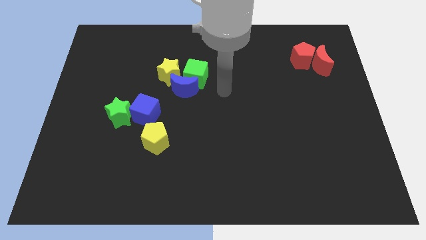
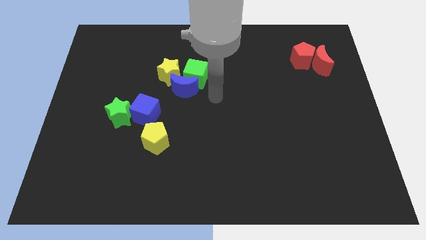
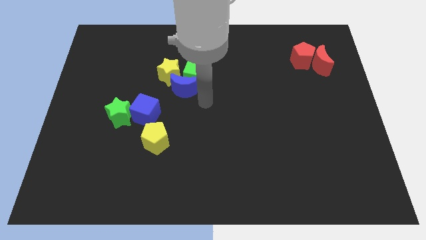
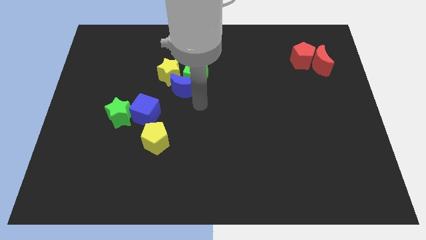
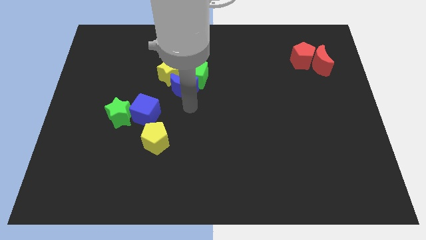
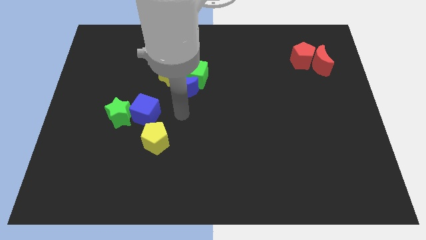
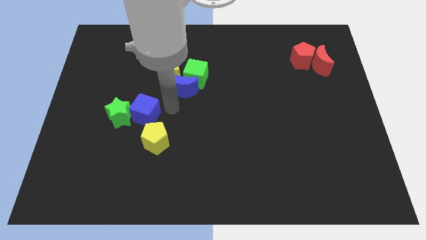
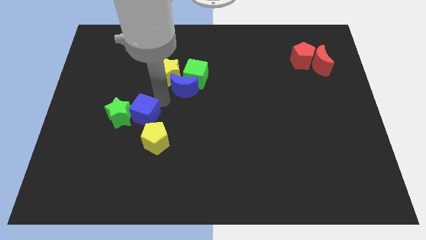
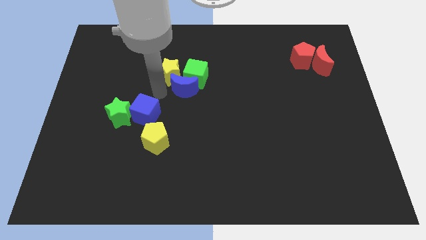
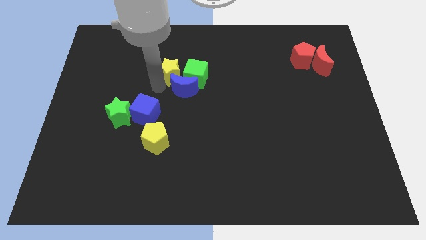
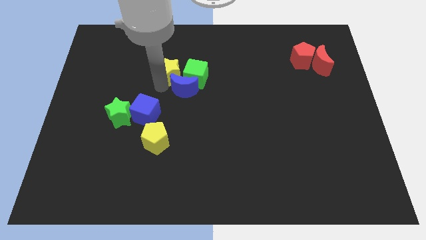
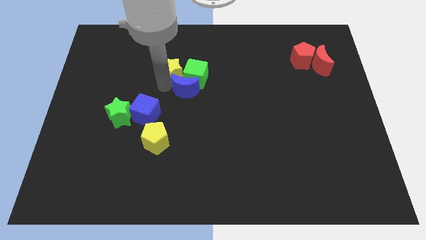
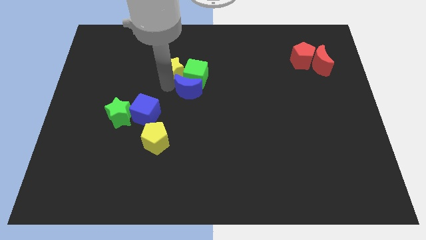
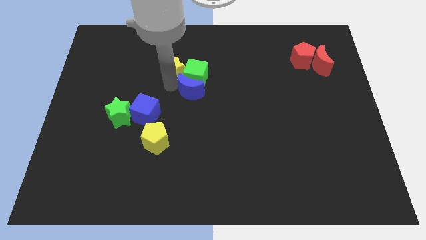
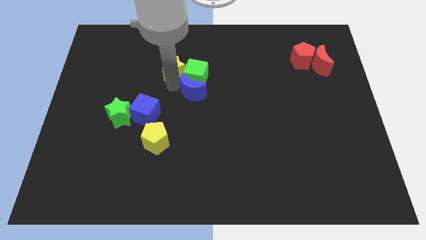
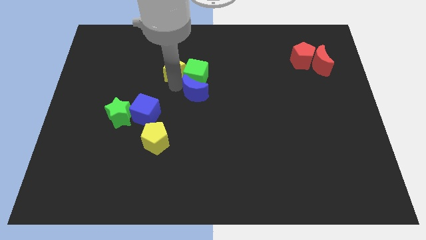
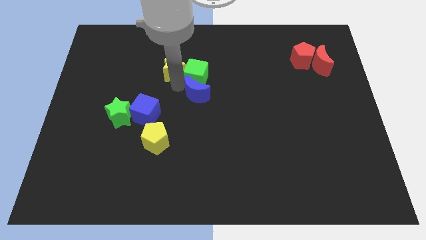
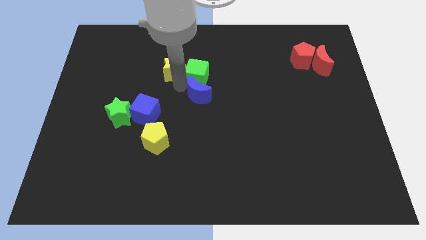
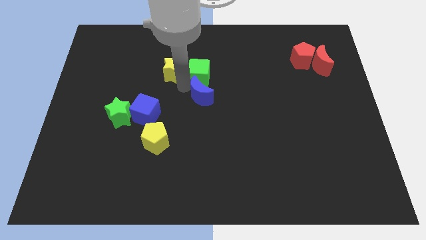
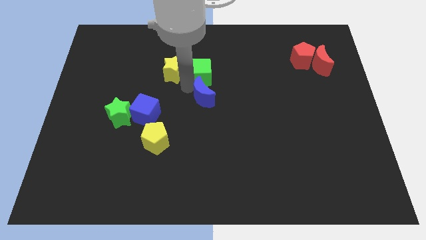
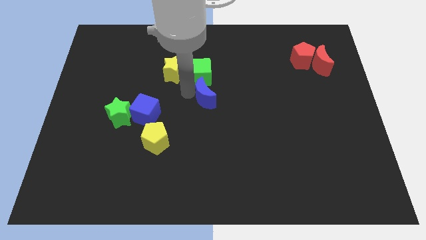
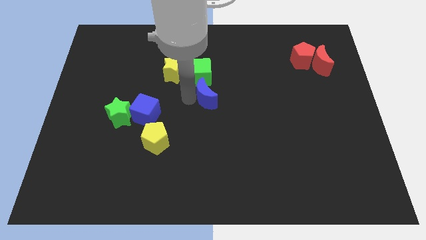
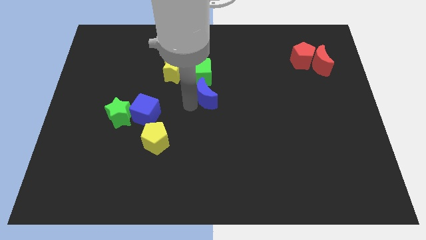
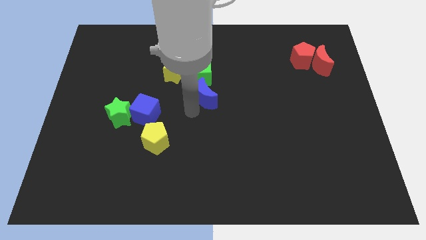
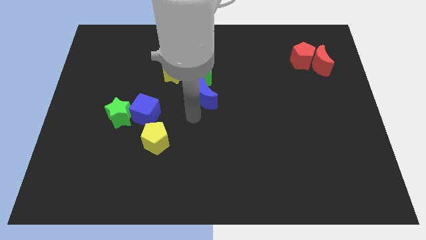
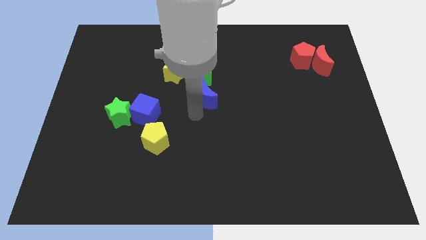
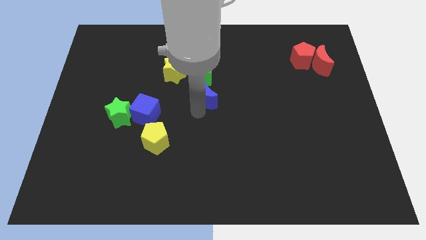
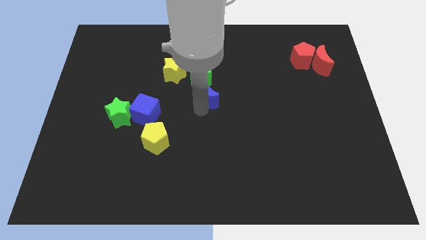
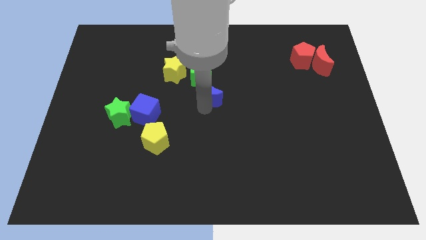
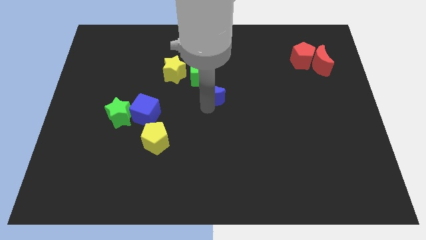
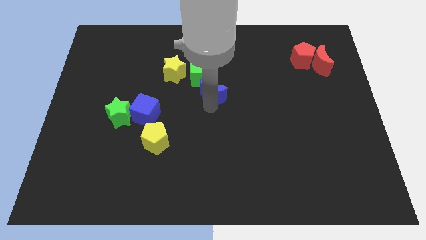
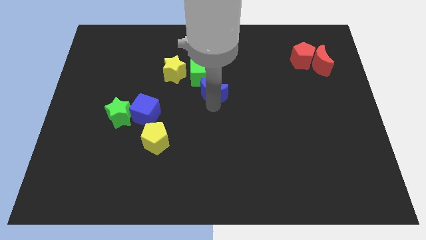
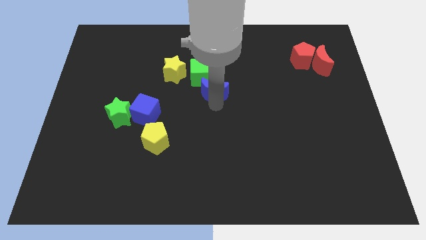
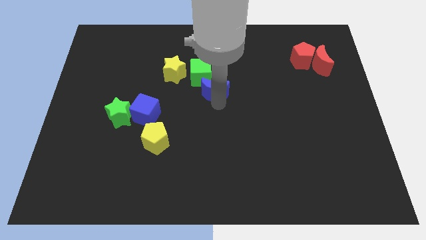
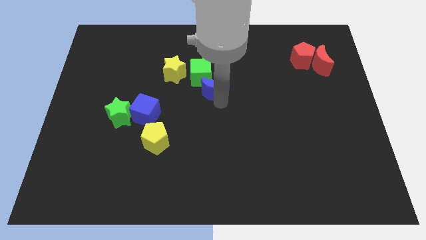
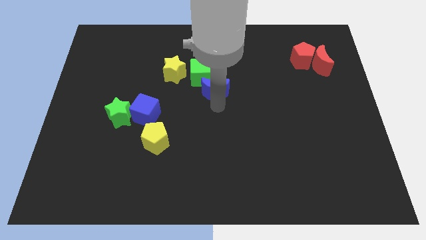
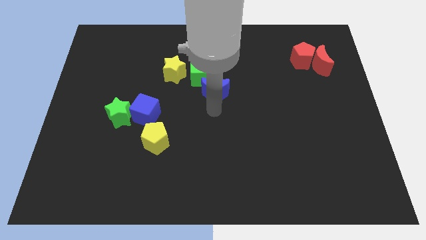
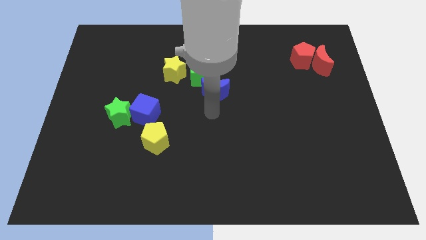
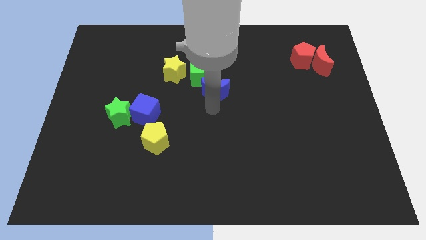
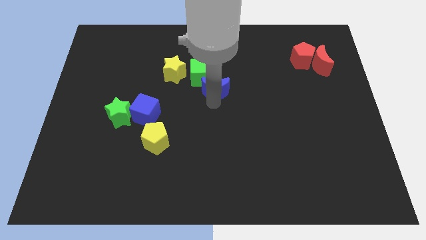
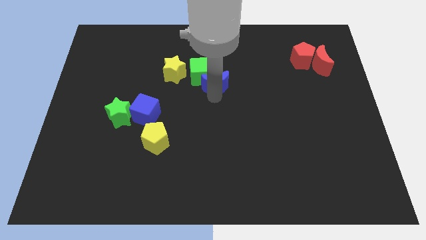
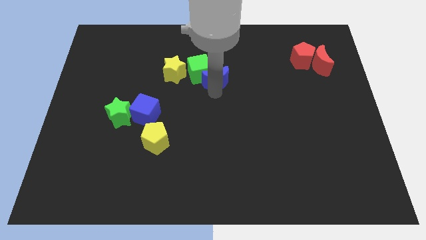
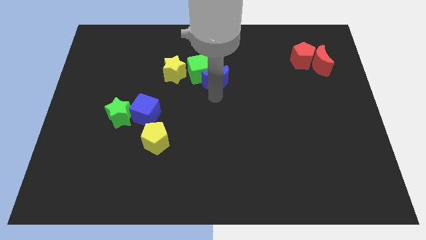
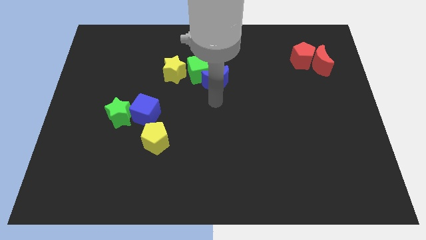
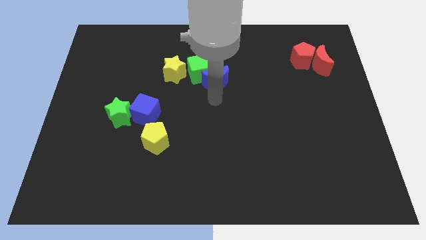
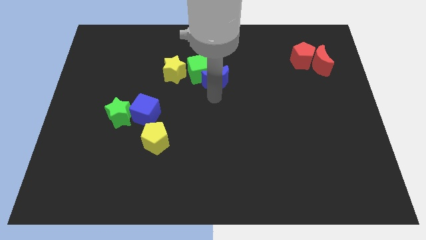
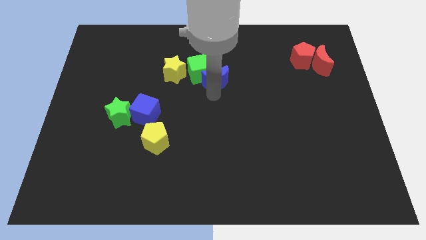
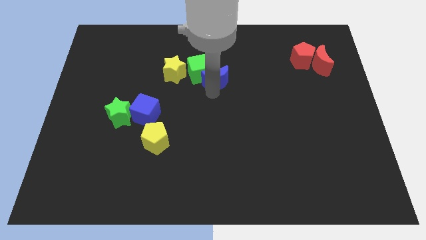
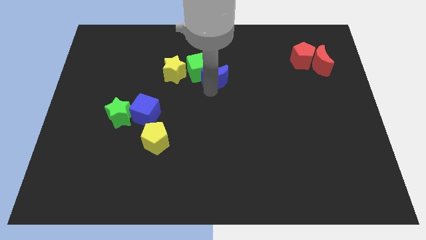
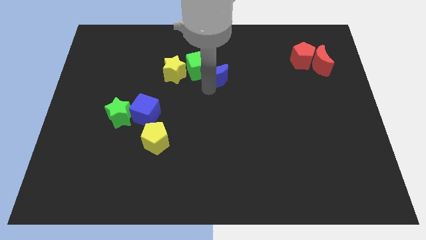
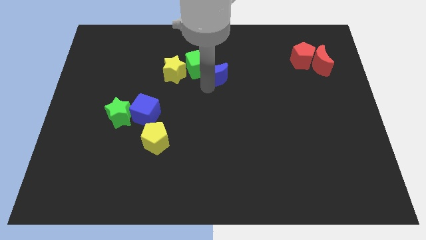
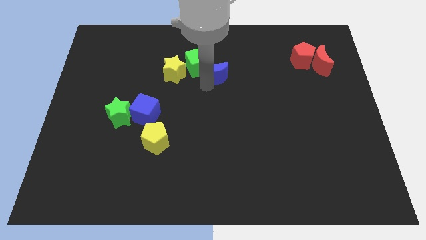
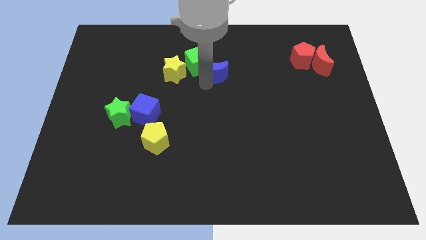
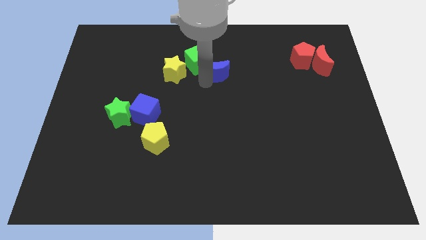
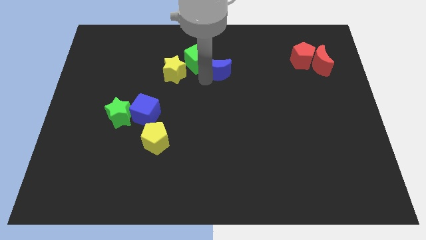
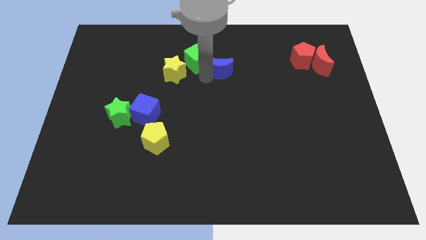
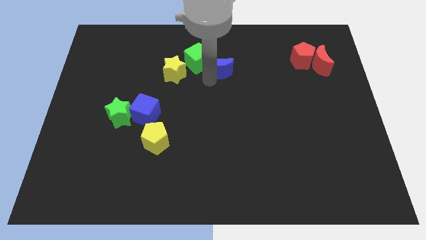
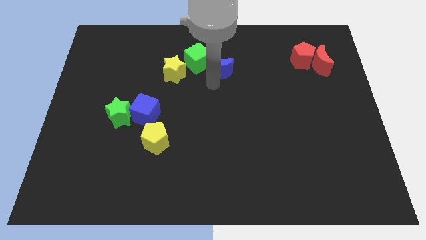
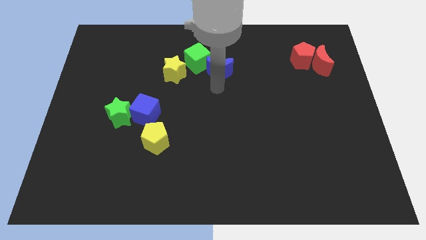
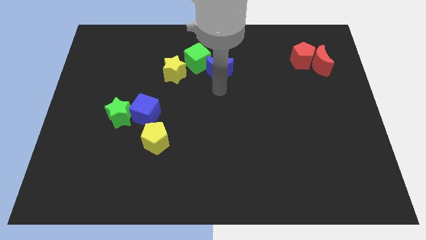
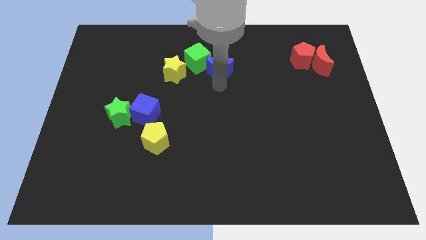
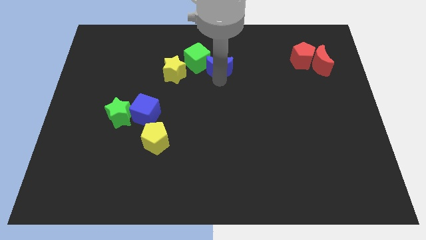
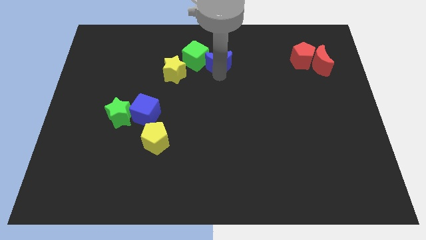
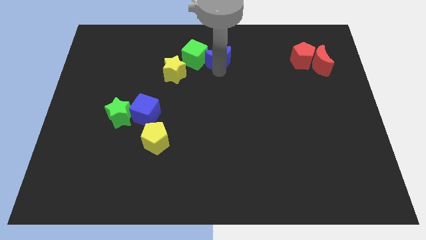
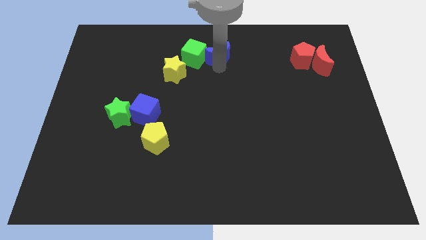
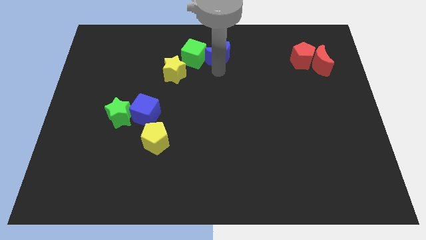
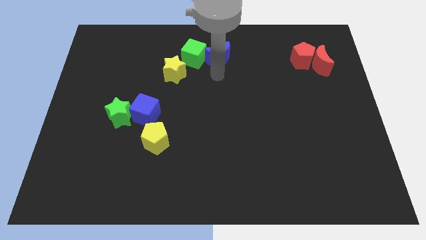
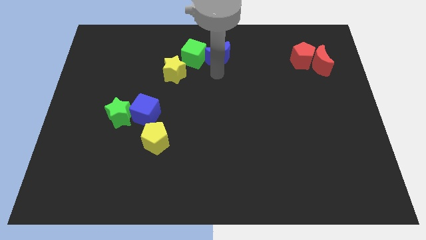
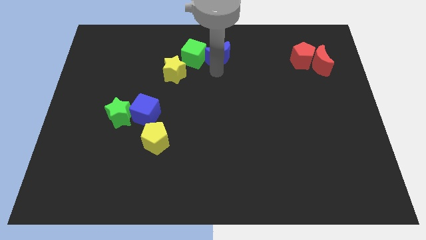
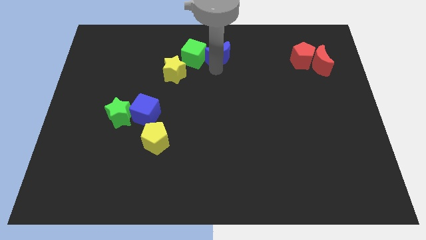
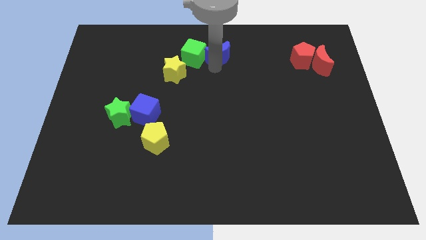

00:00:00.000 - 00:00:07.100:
move the blue moon to the towards your base
